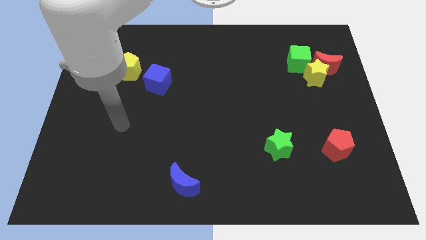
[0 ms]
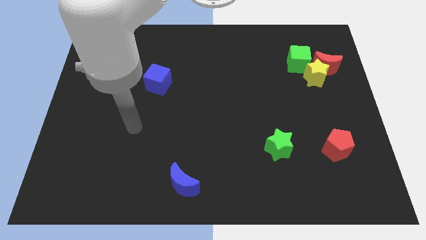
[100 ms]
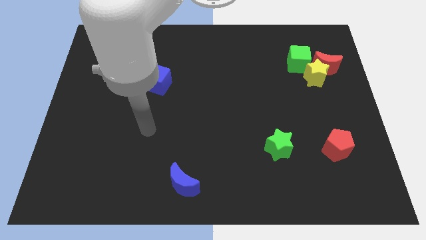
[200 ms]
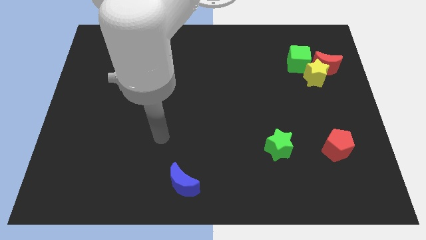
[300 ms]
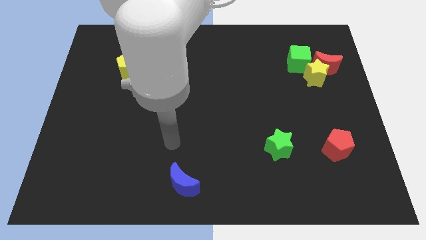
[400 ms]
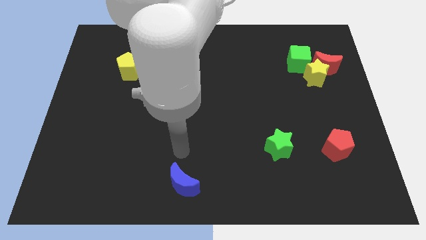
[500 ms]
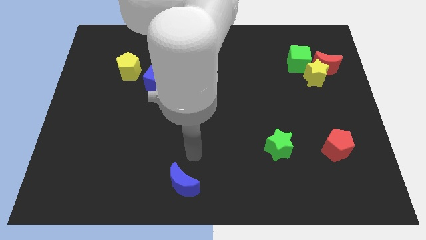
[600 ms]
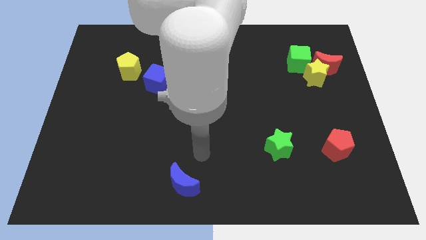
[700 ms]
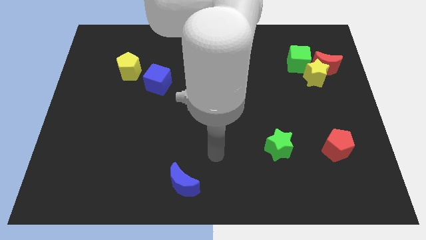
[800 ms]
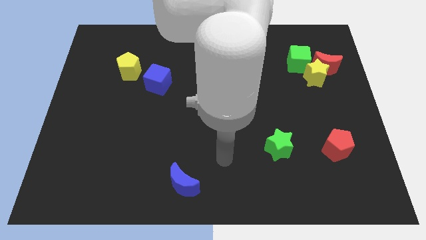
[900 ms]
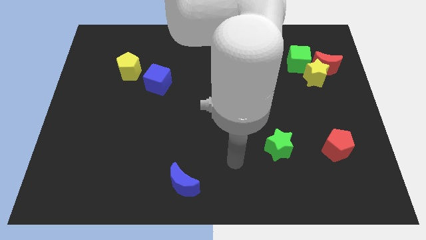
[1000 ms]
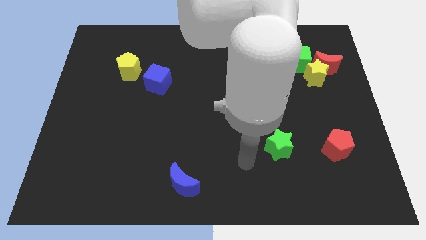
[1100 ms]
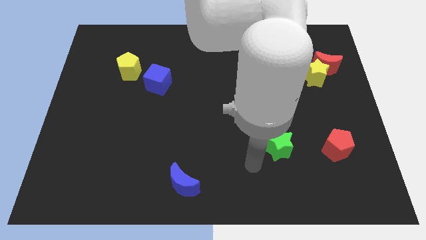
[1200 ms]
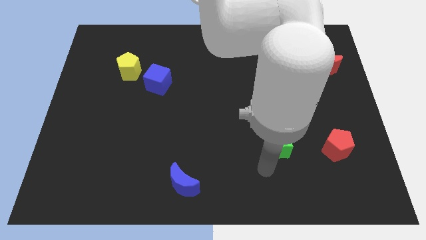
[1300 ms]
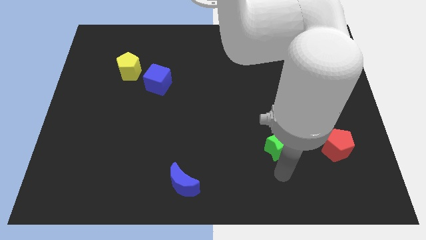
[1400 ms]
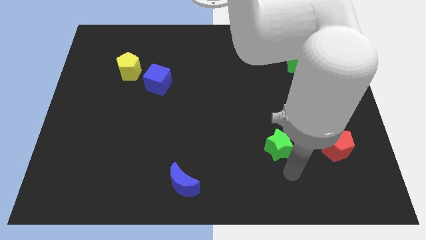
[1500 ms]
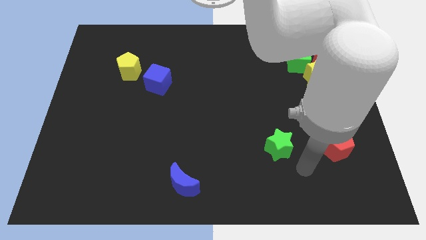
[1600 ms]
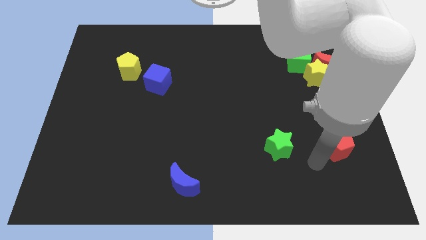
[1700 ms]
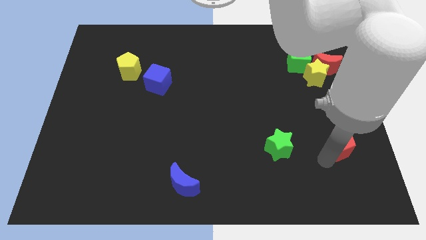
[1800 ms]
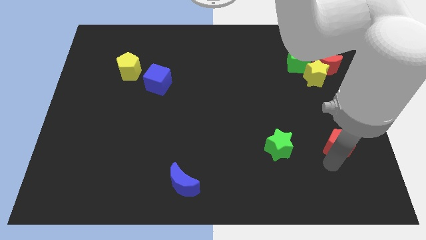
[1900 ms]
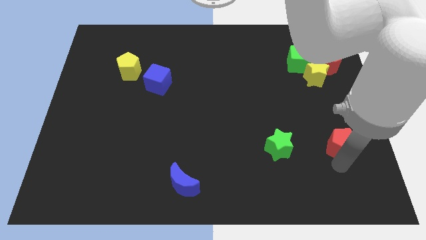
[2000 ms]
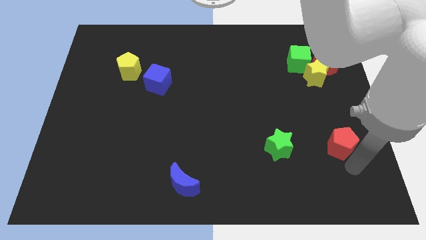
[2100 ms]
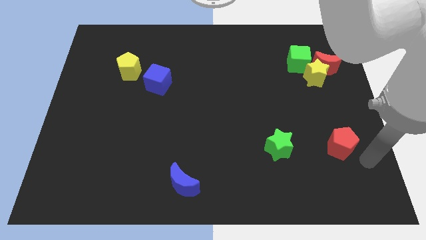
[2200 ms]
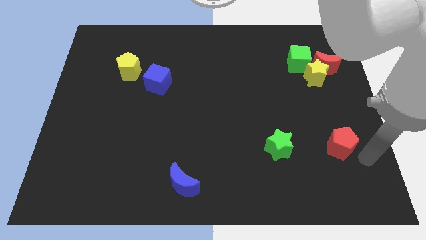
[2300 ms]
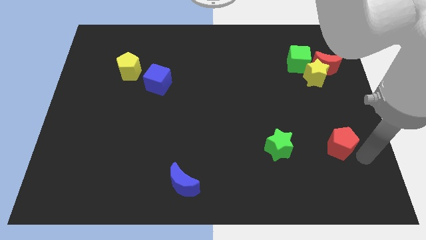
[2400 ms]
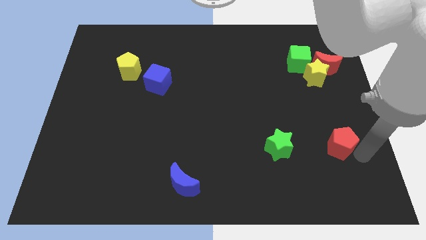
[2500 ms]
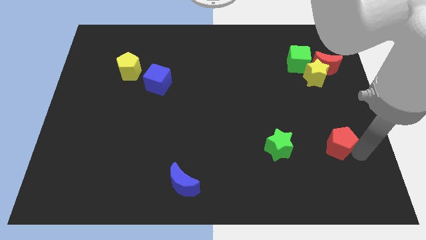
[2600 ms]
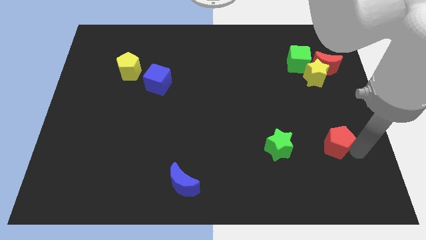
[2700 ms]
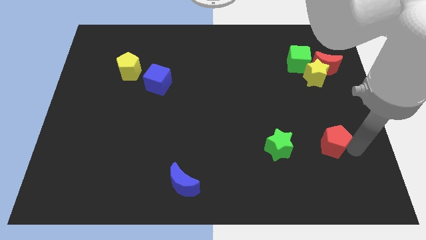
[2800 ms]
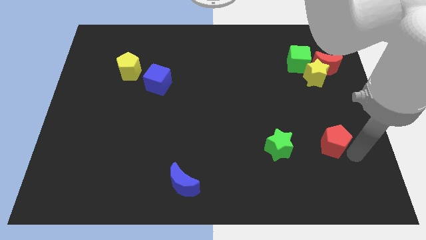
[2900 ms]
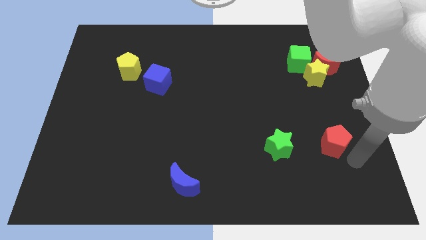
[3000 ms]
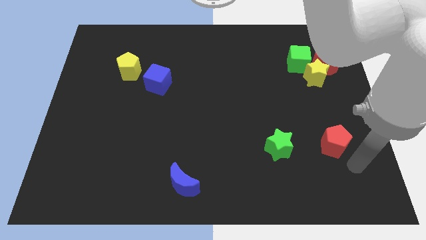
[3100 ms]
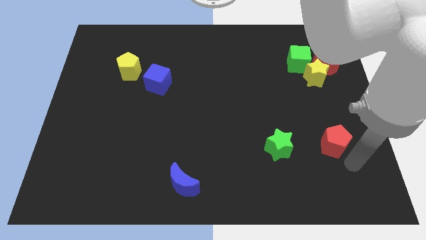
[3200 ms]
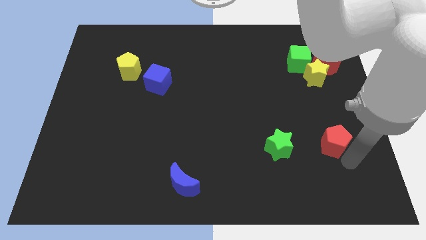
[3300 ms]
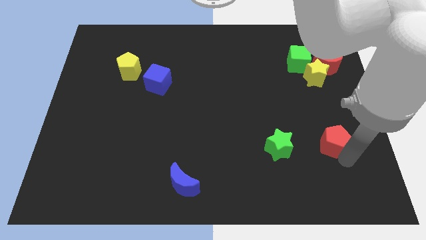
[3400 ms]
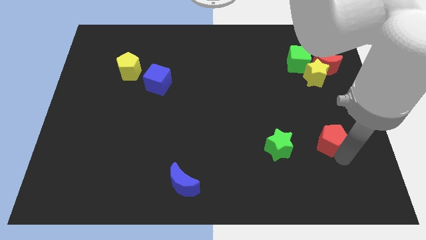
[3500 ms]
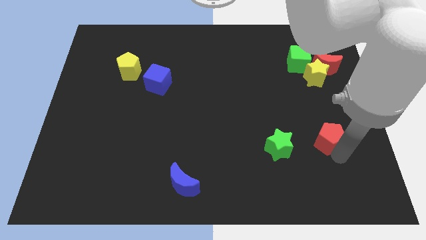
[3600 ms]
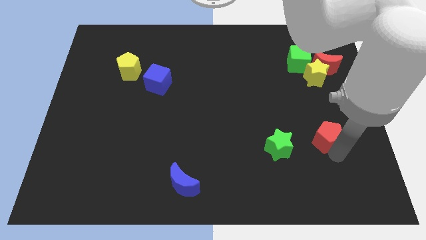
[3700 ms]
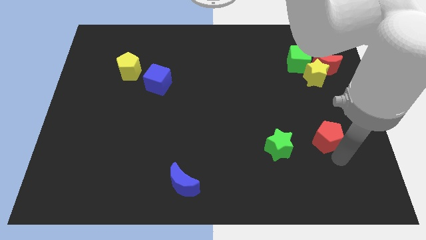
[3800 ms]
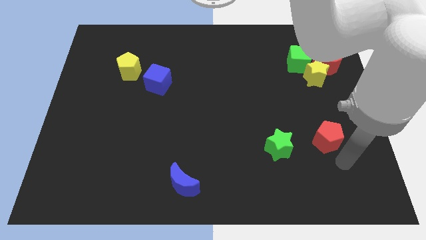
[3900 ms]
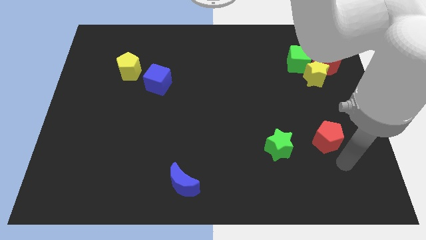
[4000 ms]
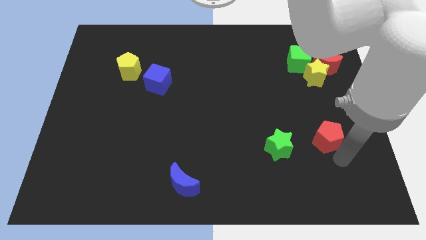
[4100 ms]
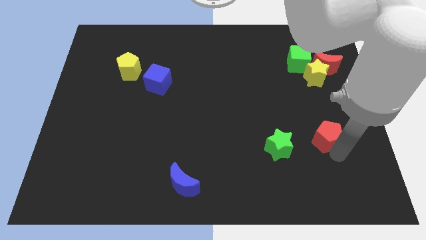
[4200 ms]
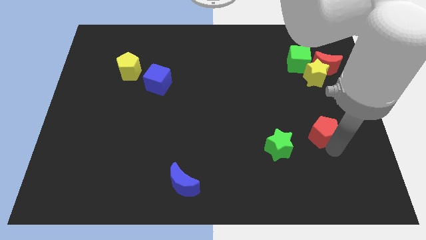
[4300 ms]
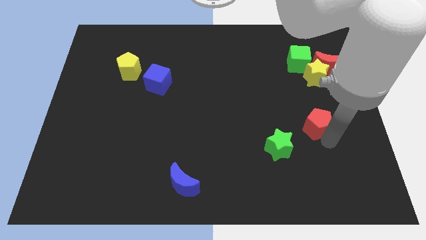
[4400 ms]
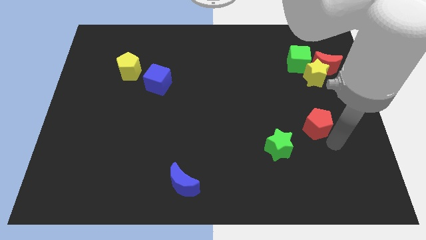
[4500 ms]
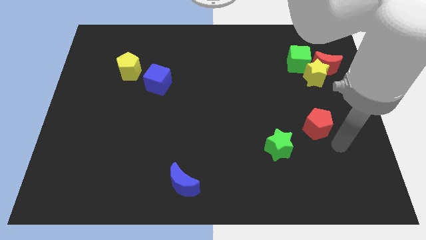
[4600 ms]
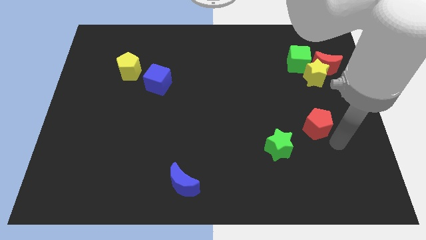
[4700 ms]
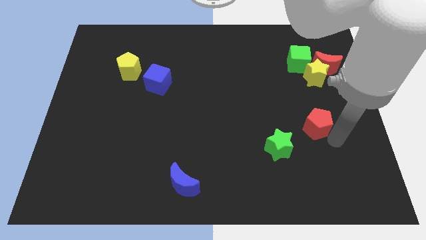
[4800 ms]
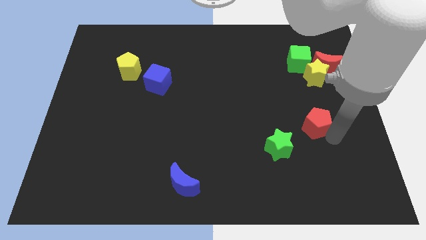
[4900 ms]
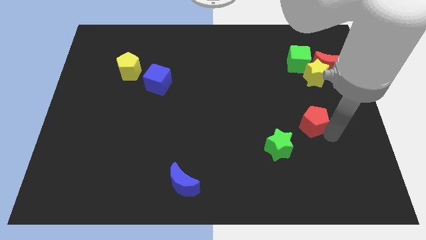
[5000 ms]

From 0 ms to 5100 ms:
push the red pentagon diagonally upwards and to the left a bit

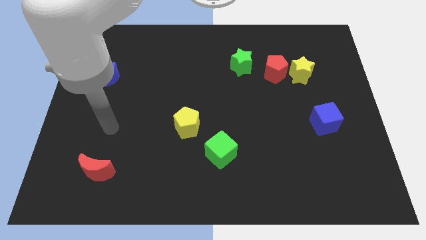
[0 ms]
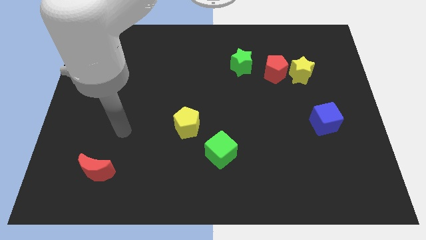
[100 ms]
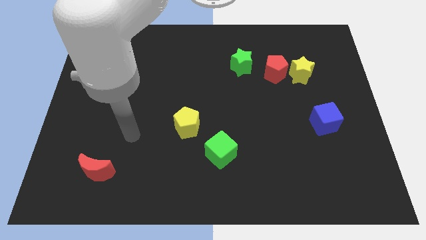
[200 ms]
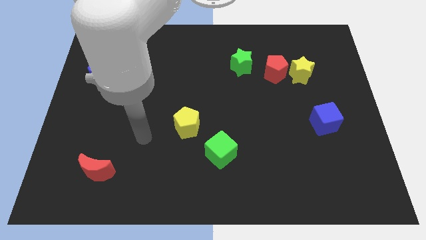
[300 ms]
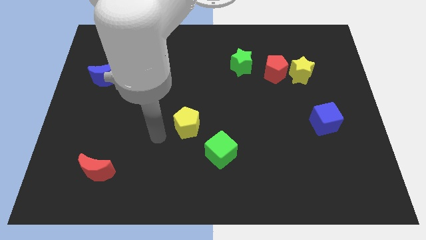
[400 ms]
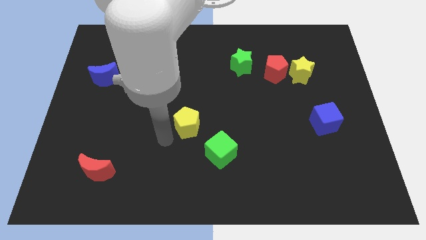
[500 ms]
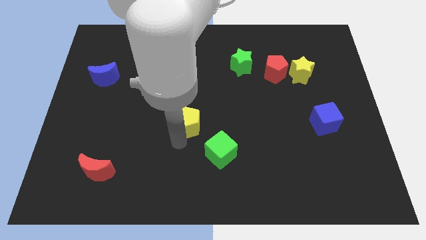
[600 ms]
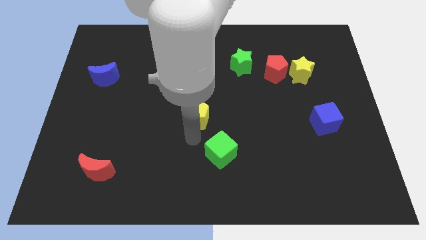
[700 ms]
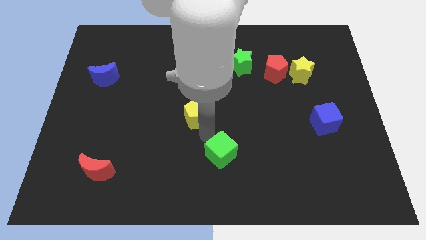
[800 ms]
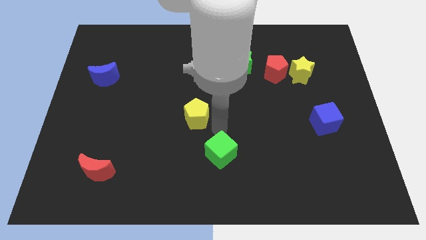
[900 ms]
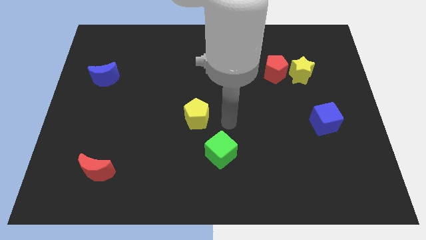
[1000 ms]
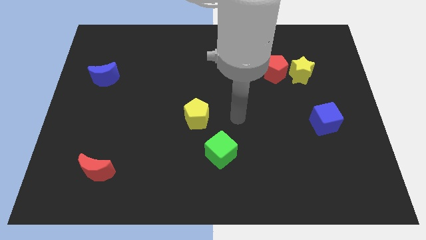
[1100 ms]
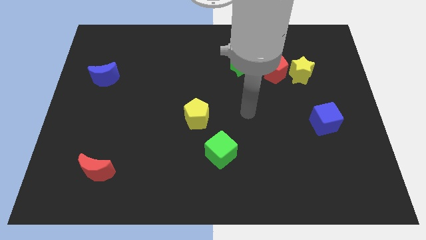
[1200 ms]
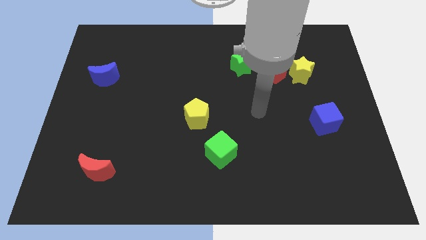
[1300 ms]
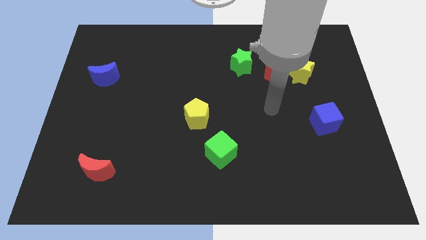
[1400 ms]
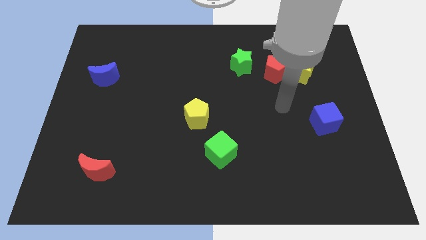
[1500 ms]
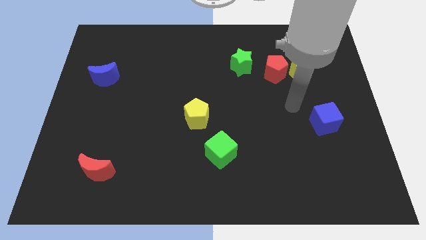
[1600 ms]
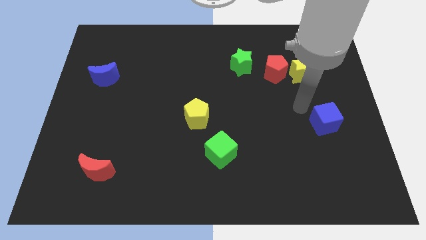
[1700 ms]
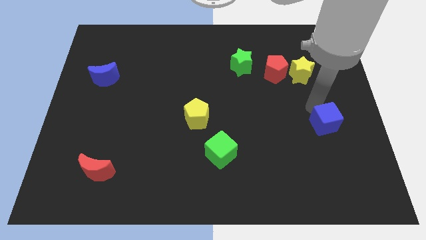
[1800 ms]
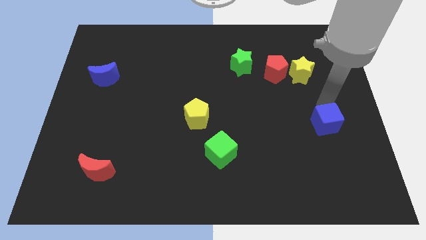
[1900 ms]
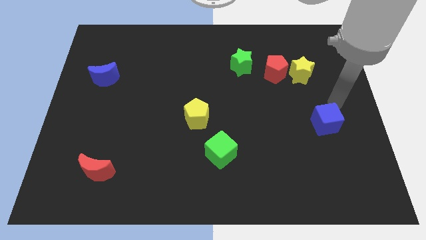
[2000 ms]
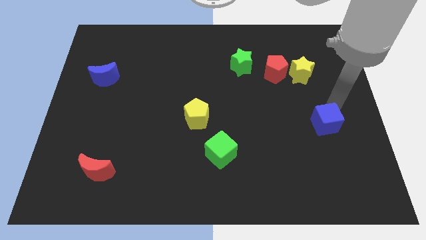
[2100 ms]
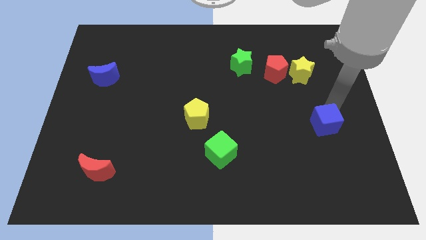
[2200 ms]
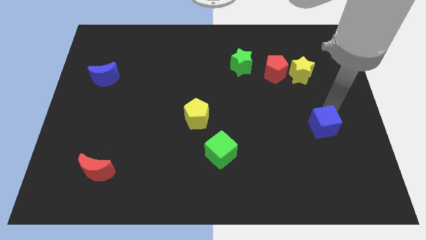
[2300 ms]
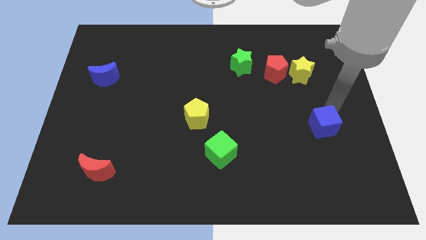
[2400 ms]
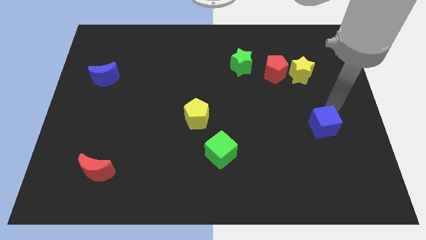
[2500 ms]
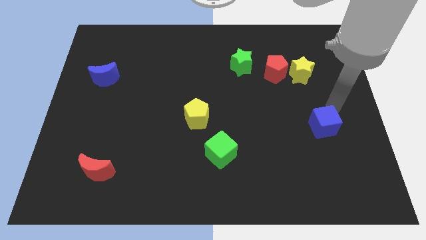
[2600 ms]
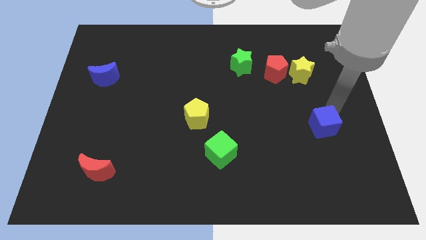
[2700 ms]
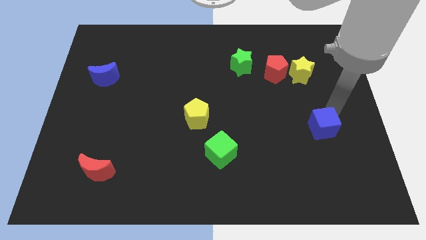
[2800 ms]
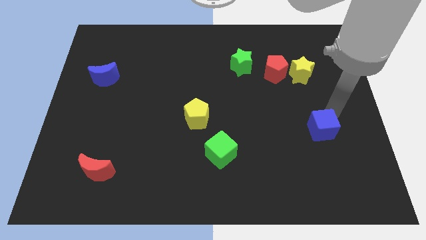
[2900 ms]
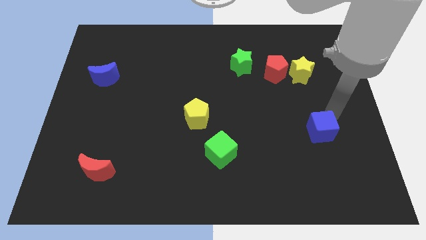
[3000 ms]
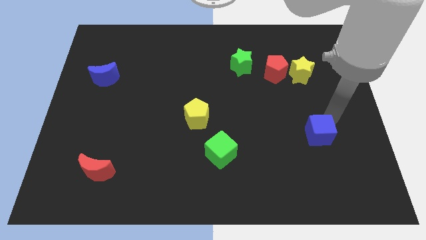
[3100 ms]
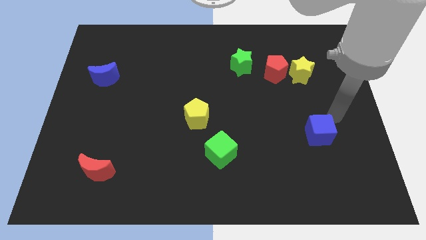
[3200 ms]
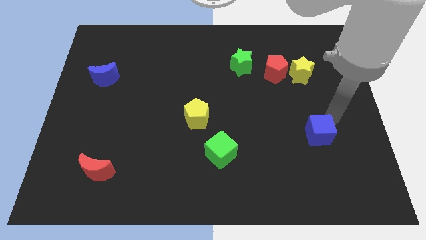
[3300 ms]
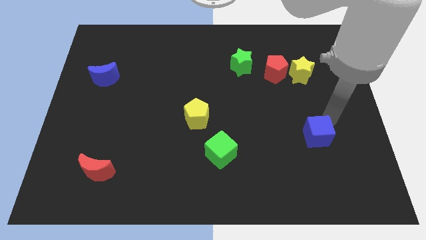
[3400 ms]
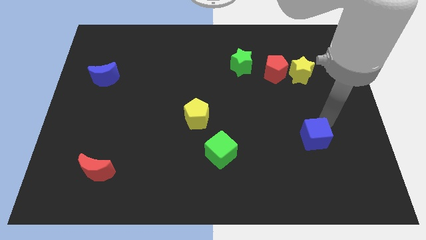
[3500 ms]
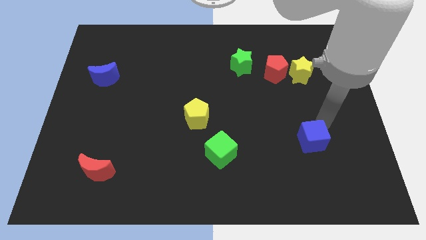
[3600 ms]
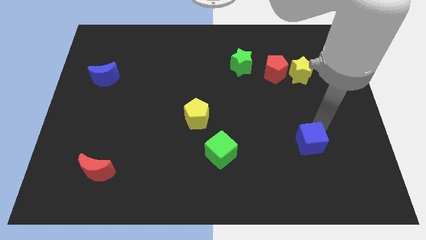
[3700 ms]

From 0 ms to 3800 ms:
slide the blue cube somewhat diagonally down and to the left
